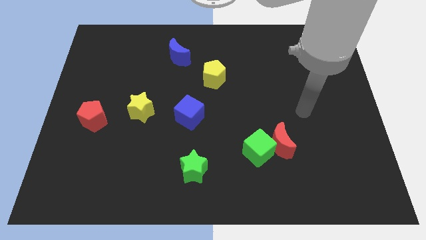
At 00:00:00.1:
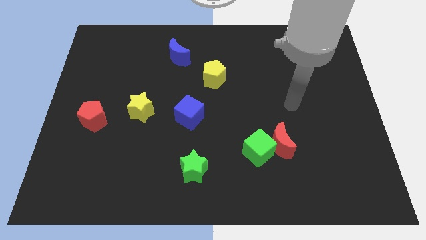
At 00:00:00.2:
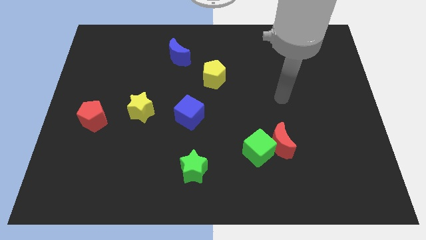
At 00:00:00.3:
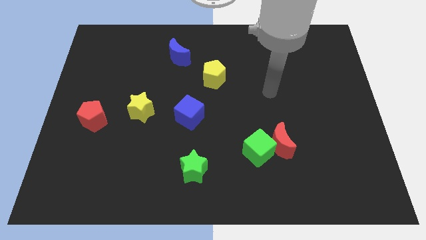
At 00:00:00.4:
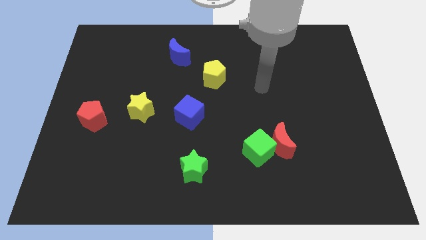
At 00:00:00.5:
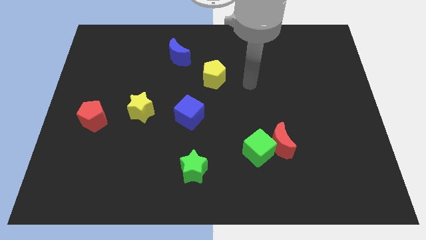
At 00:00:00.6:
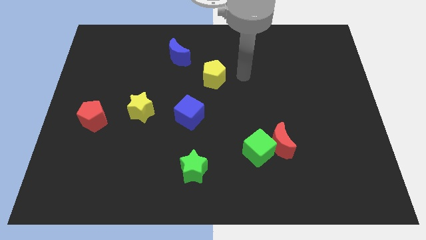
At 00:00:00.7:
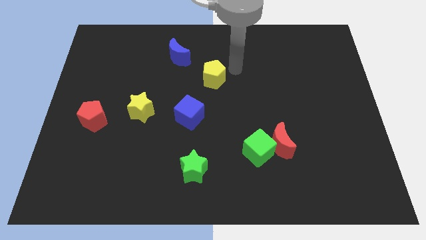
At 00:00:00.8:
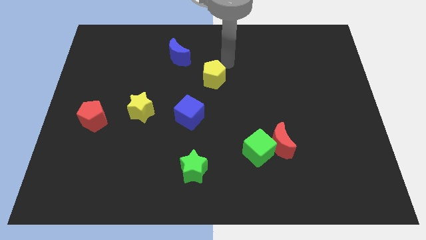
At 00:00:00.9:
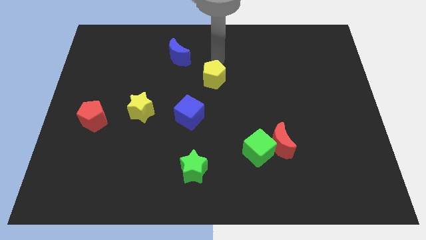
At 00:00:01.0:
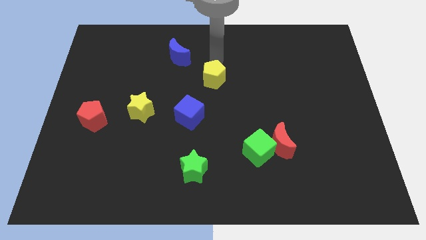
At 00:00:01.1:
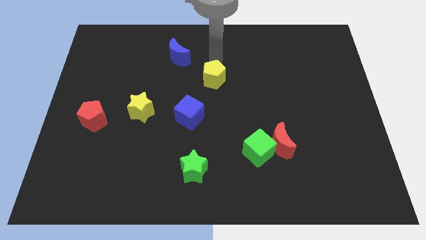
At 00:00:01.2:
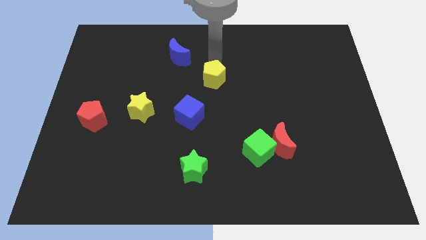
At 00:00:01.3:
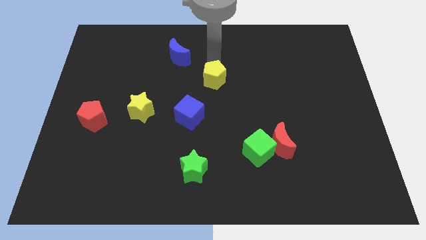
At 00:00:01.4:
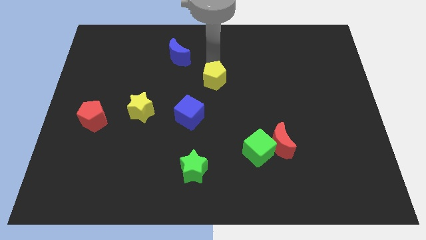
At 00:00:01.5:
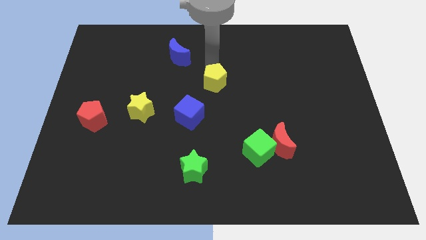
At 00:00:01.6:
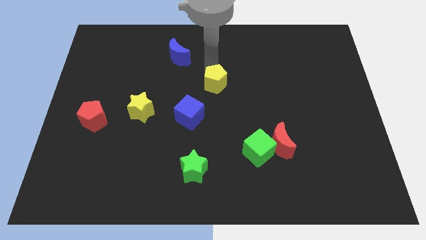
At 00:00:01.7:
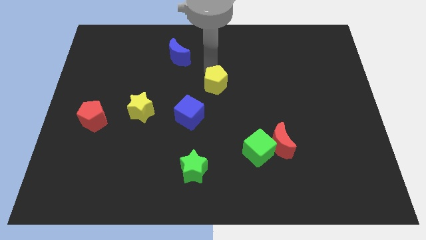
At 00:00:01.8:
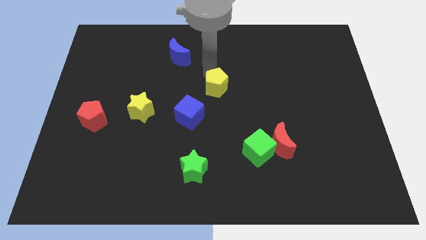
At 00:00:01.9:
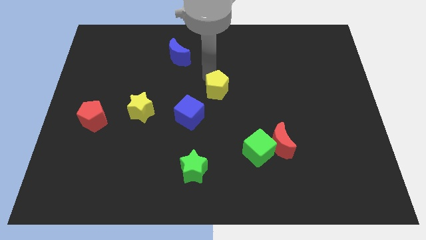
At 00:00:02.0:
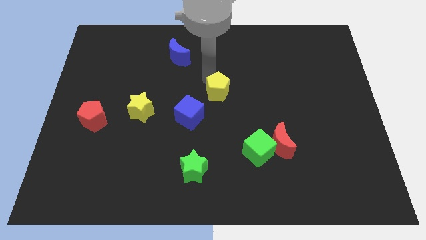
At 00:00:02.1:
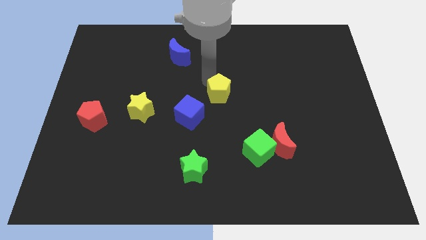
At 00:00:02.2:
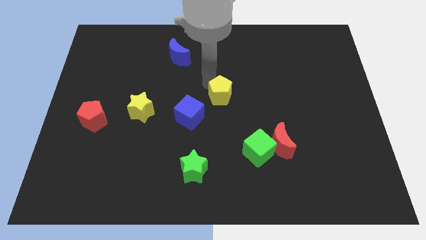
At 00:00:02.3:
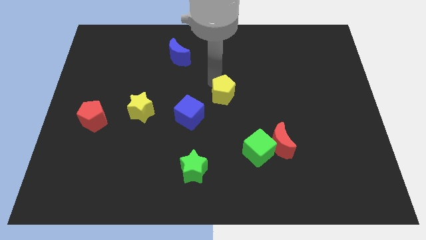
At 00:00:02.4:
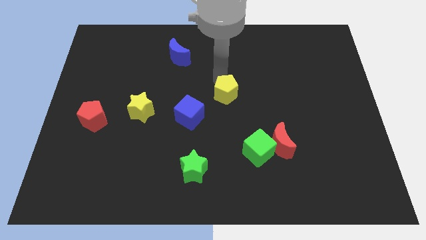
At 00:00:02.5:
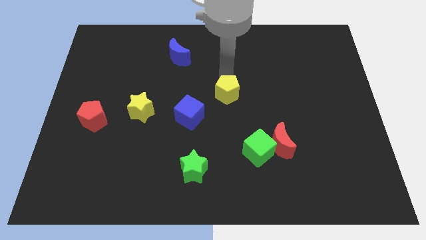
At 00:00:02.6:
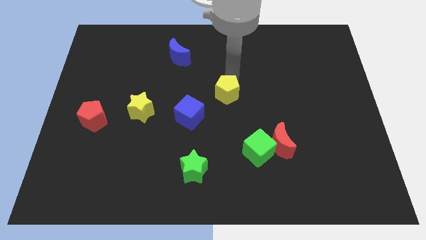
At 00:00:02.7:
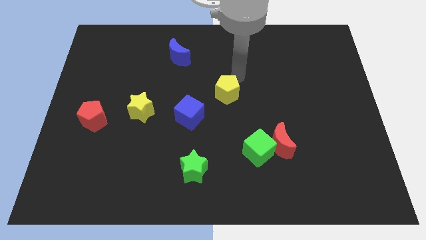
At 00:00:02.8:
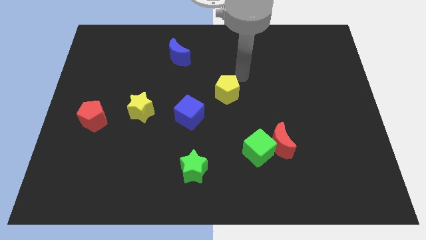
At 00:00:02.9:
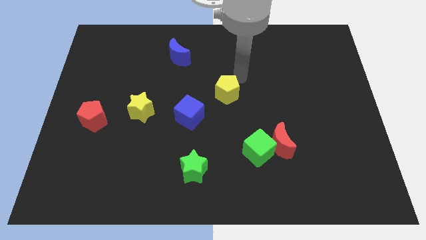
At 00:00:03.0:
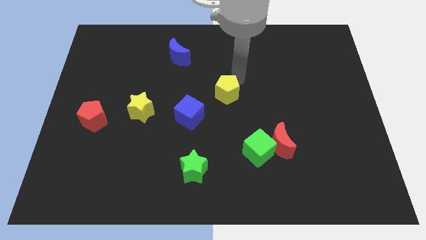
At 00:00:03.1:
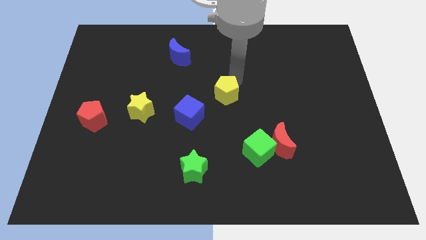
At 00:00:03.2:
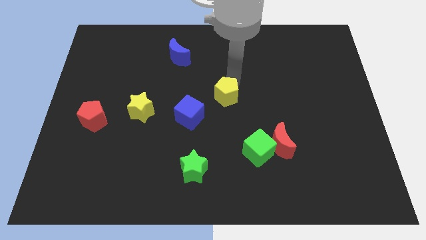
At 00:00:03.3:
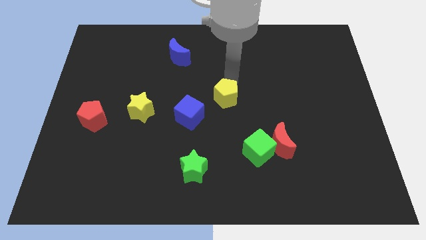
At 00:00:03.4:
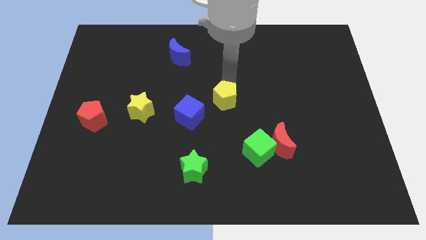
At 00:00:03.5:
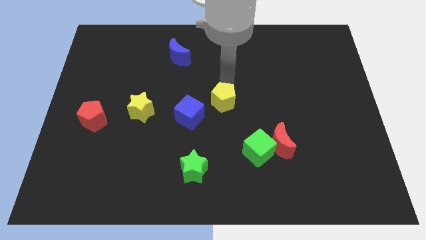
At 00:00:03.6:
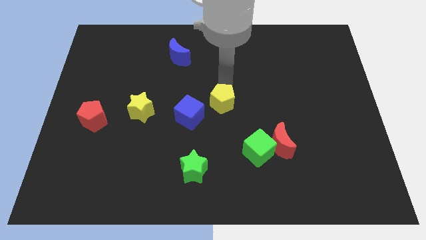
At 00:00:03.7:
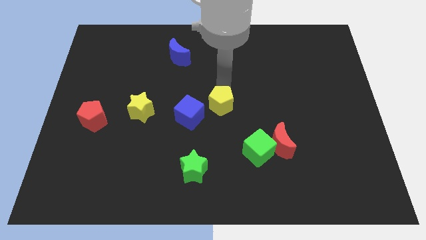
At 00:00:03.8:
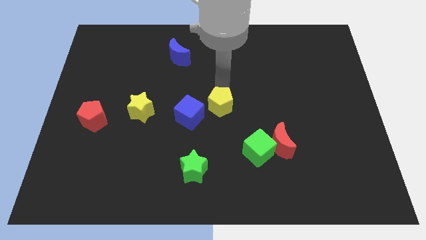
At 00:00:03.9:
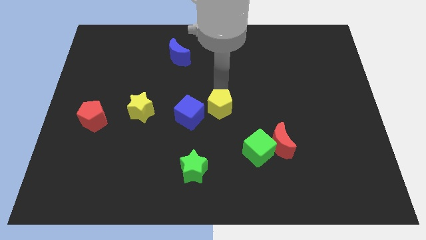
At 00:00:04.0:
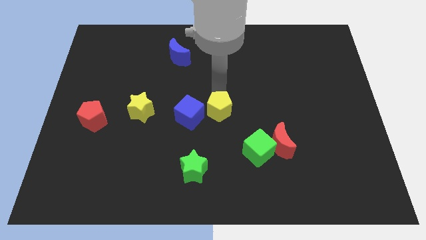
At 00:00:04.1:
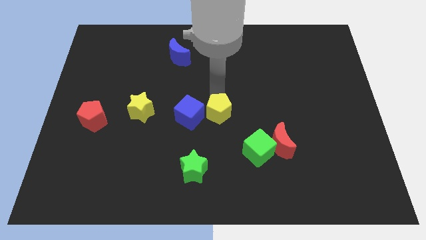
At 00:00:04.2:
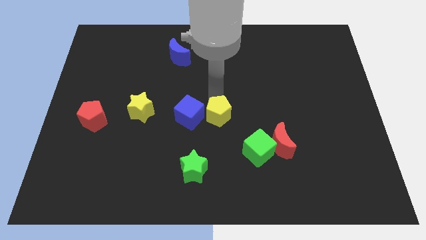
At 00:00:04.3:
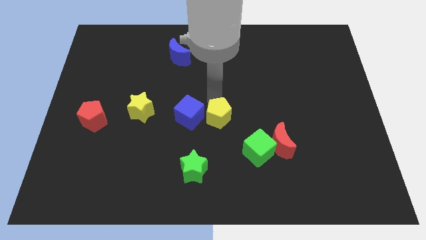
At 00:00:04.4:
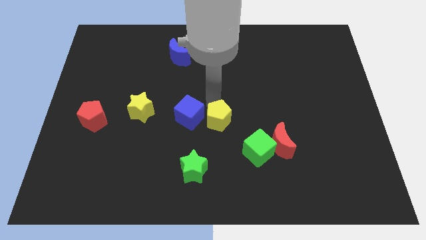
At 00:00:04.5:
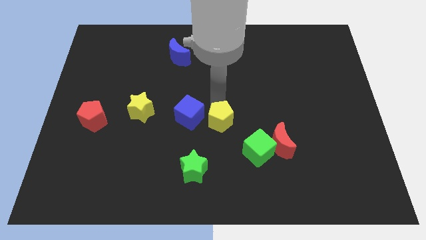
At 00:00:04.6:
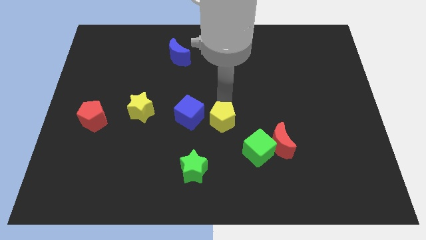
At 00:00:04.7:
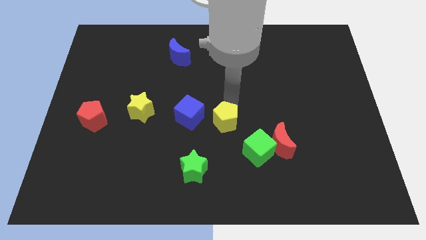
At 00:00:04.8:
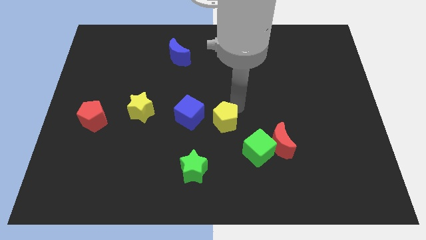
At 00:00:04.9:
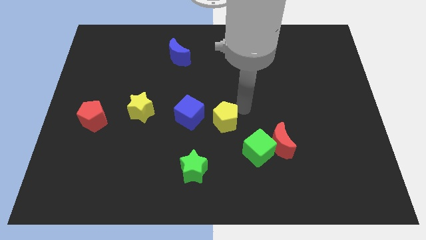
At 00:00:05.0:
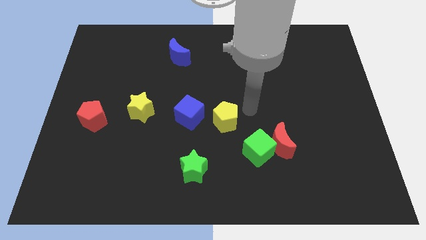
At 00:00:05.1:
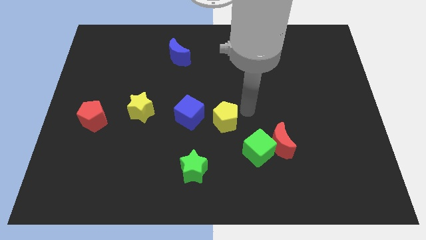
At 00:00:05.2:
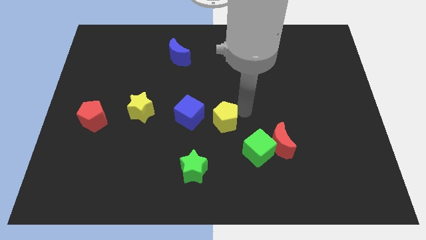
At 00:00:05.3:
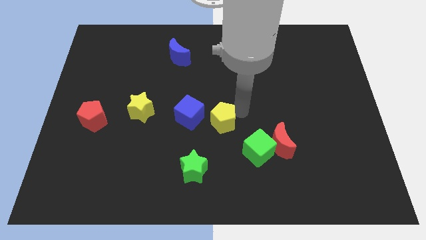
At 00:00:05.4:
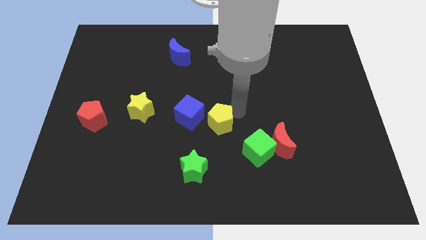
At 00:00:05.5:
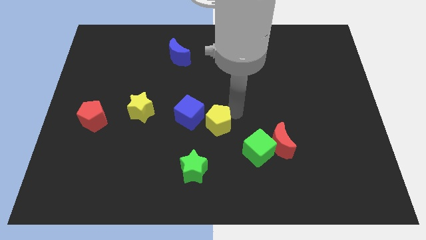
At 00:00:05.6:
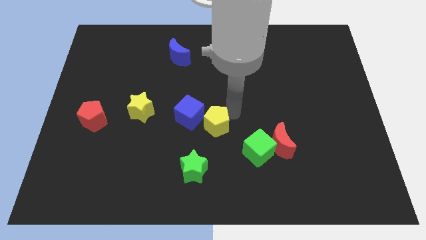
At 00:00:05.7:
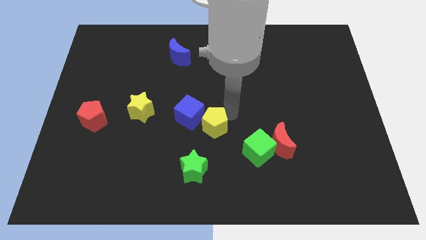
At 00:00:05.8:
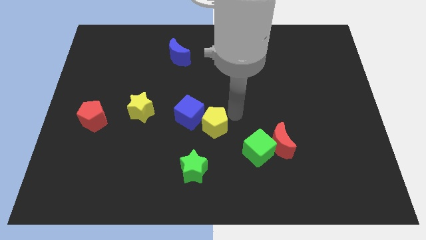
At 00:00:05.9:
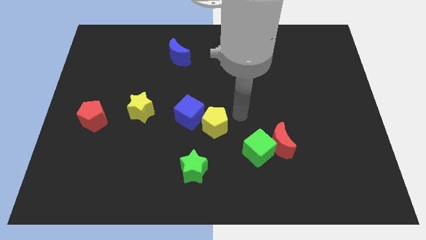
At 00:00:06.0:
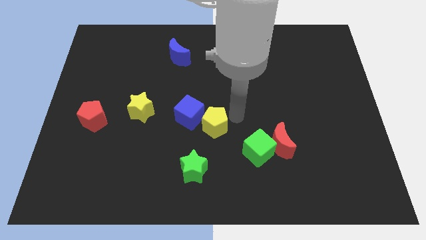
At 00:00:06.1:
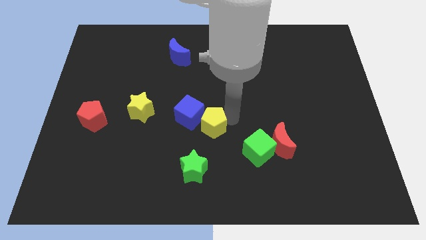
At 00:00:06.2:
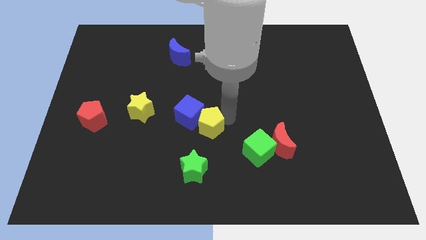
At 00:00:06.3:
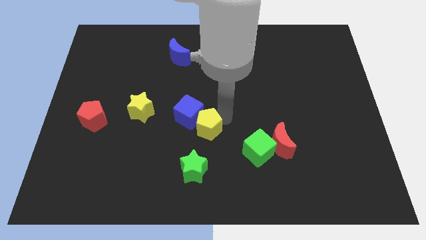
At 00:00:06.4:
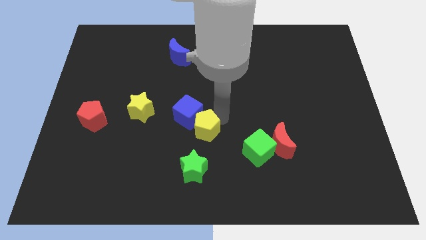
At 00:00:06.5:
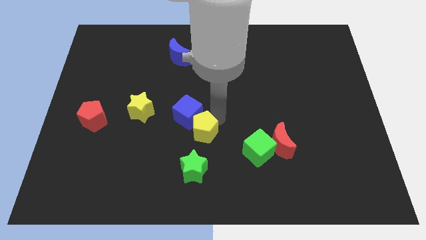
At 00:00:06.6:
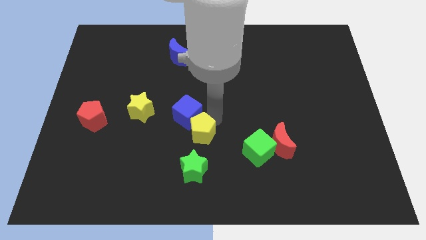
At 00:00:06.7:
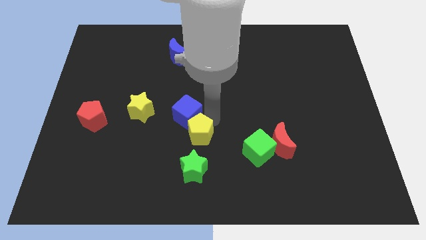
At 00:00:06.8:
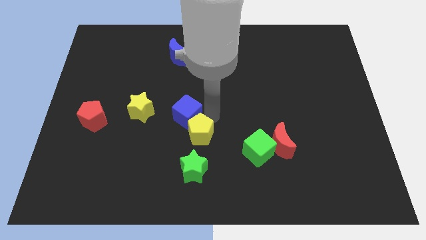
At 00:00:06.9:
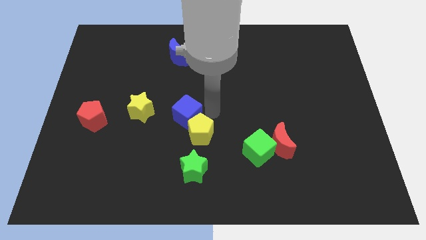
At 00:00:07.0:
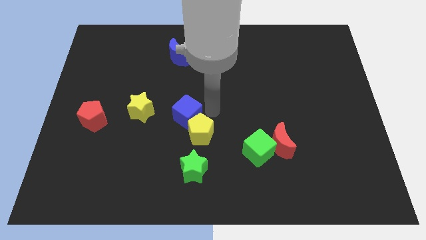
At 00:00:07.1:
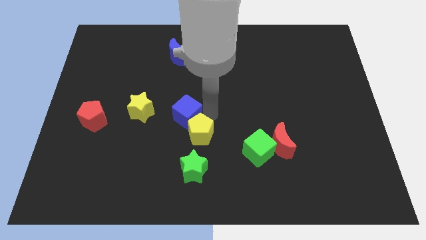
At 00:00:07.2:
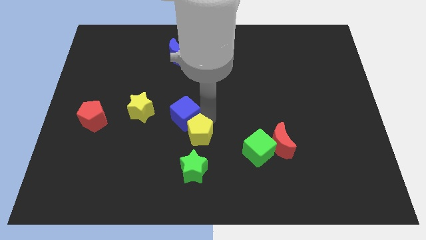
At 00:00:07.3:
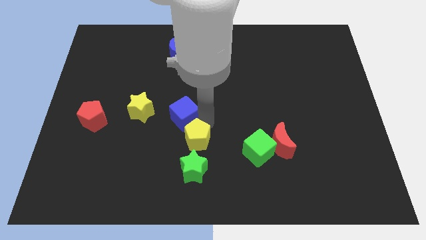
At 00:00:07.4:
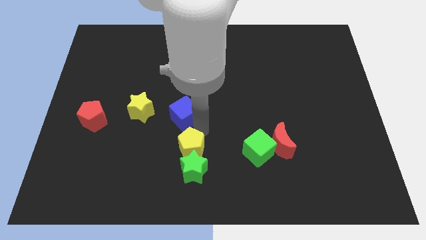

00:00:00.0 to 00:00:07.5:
move the yellow pentagon towards the green star
